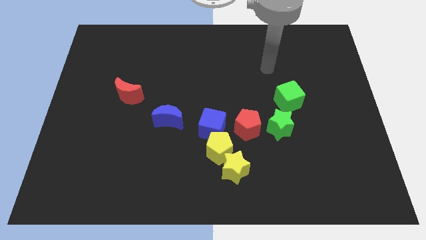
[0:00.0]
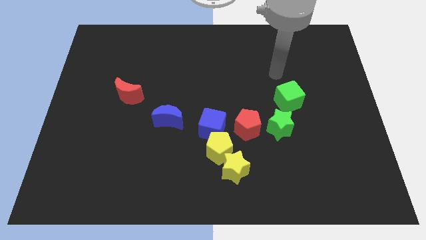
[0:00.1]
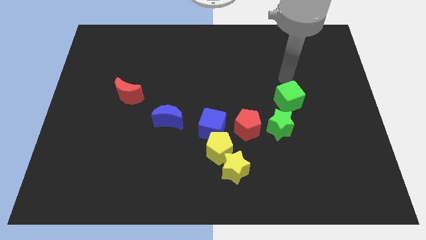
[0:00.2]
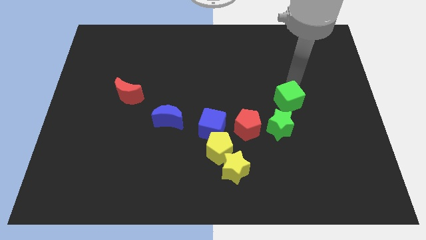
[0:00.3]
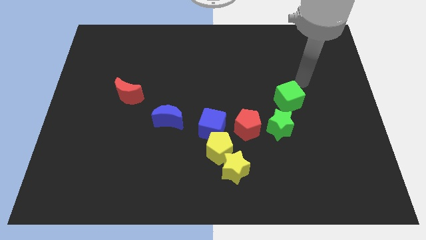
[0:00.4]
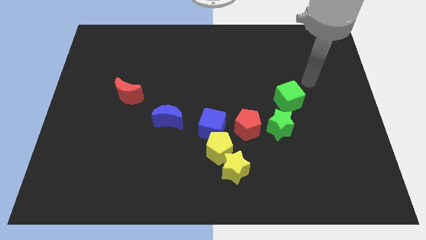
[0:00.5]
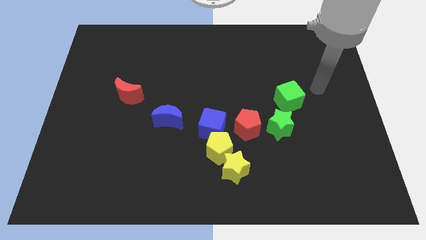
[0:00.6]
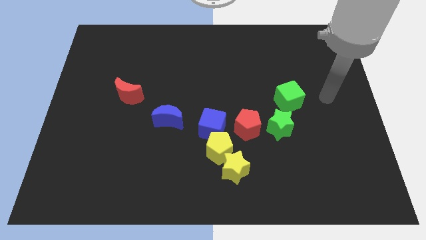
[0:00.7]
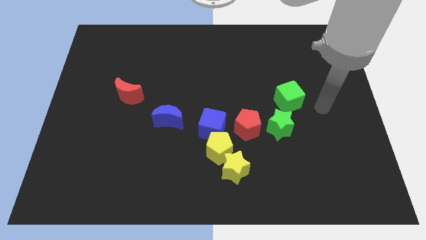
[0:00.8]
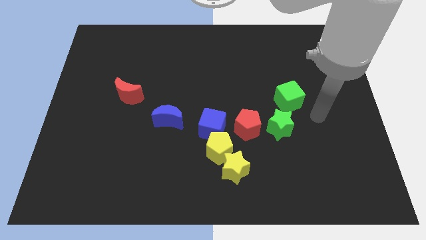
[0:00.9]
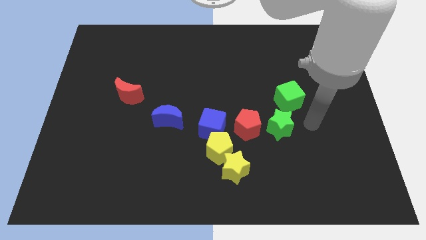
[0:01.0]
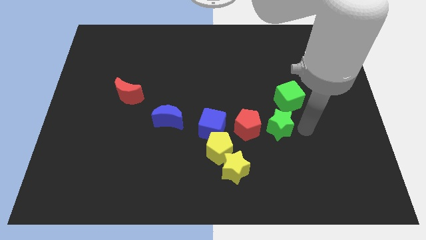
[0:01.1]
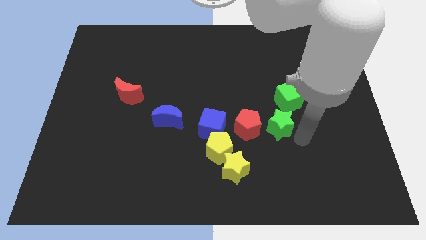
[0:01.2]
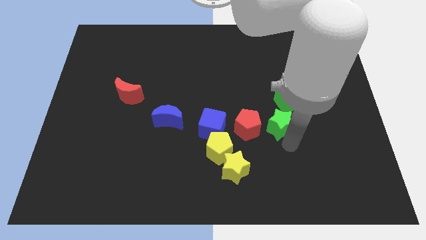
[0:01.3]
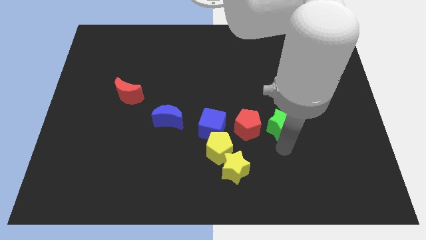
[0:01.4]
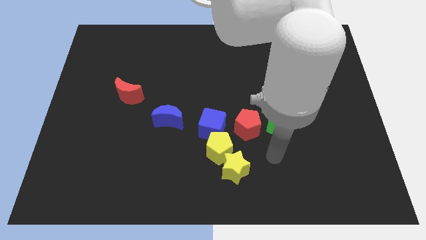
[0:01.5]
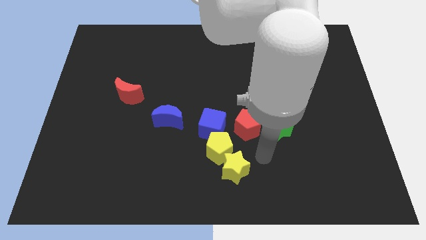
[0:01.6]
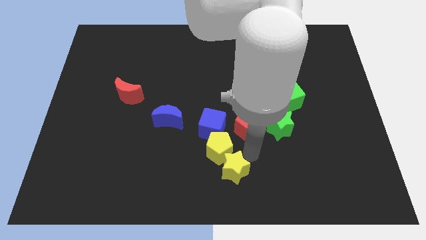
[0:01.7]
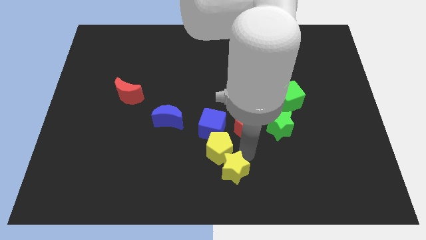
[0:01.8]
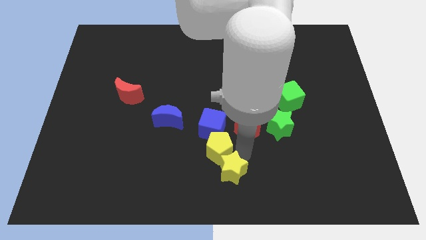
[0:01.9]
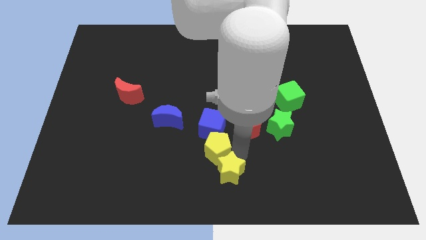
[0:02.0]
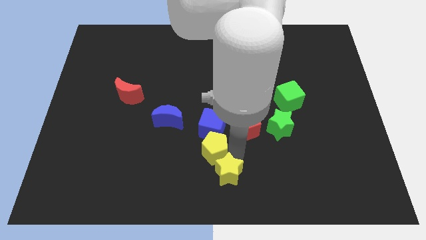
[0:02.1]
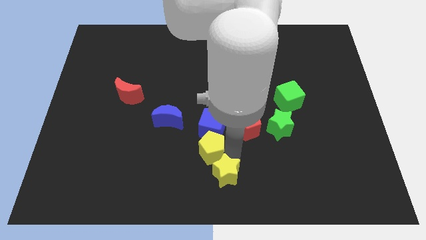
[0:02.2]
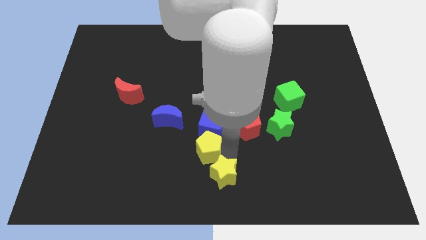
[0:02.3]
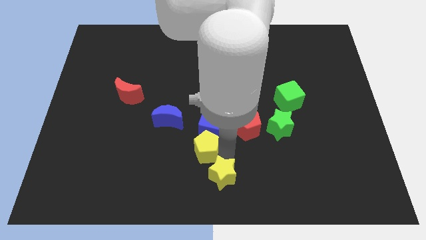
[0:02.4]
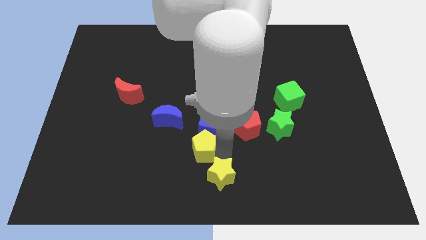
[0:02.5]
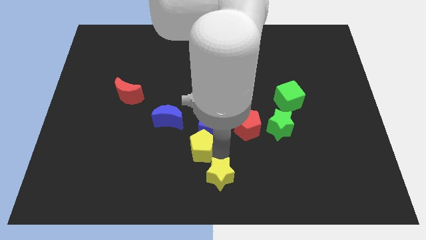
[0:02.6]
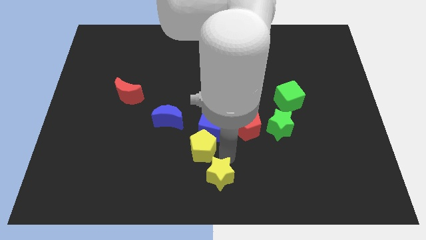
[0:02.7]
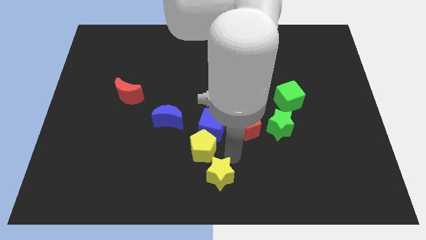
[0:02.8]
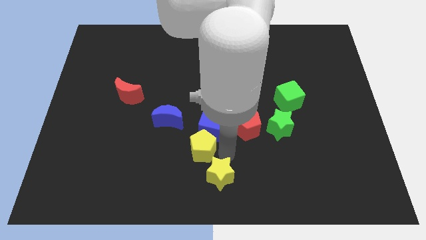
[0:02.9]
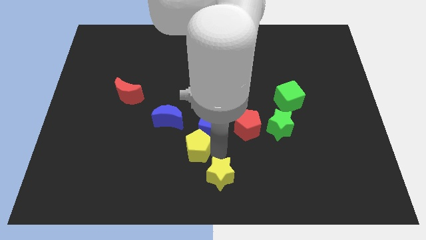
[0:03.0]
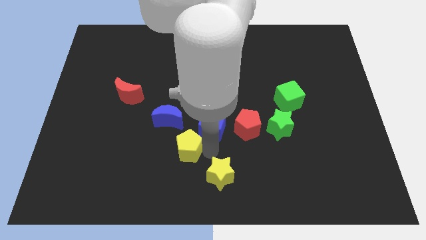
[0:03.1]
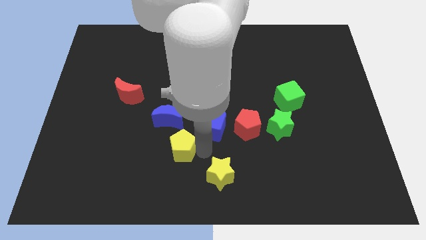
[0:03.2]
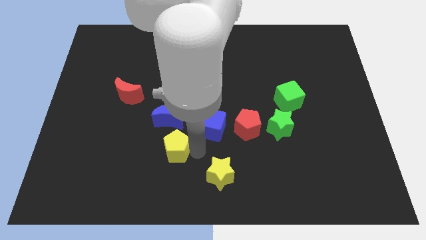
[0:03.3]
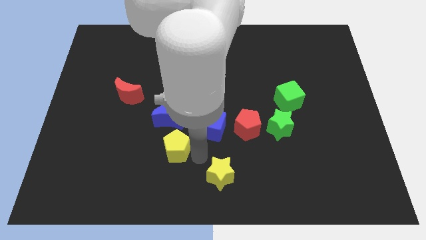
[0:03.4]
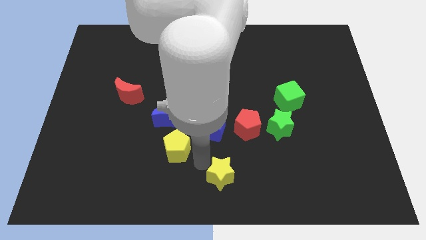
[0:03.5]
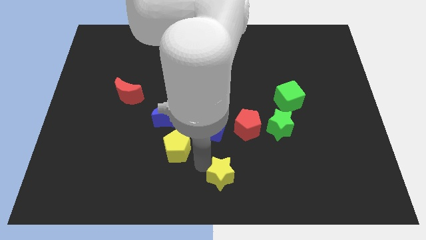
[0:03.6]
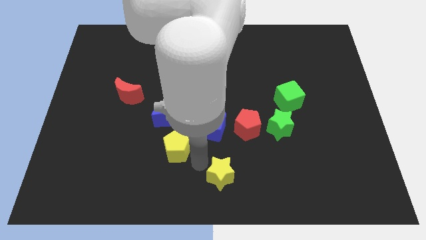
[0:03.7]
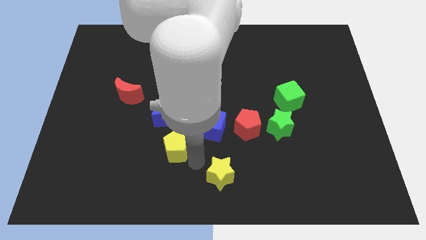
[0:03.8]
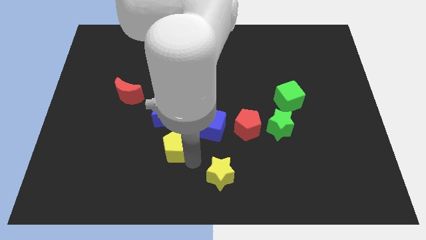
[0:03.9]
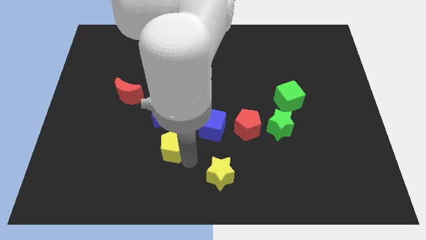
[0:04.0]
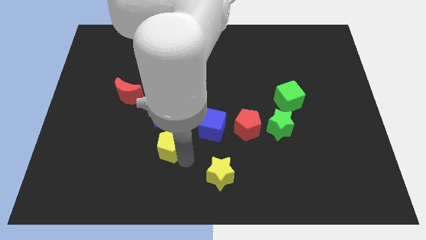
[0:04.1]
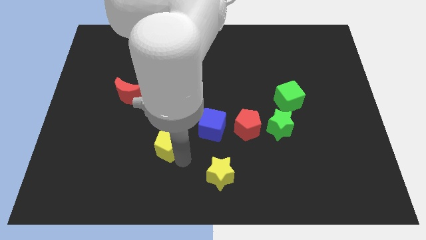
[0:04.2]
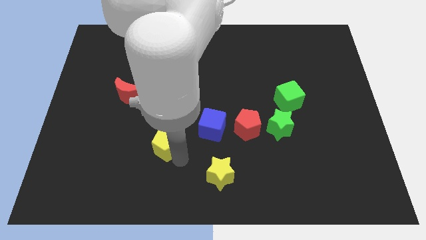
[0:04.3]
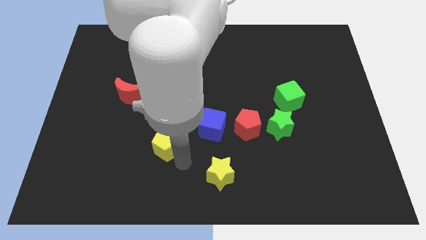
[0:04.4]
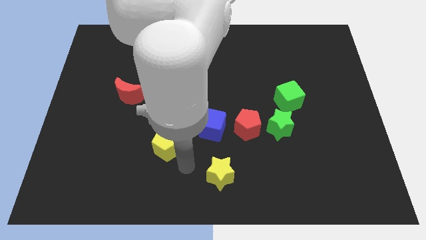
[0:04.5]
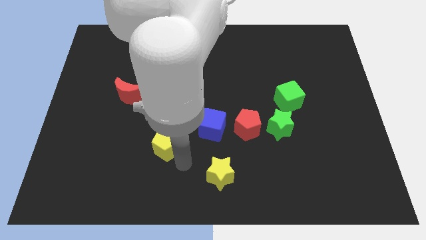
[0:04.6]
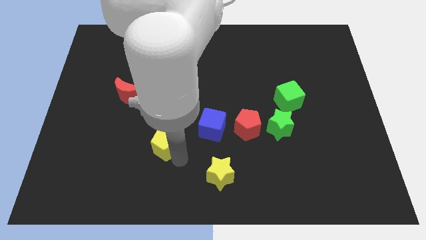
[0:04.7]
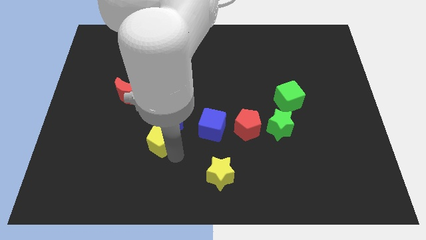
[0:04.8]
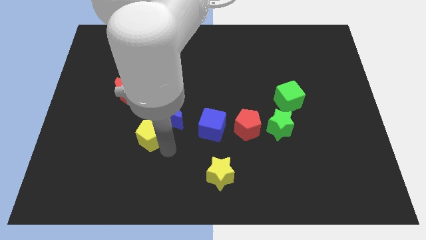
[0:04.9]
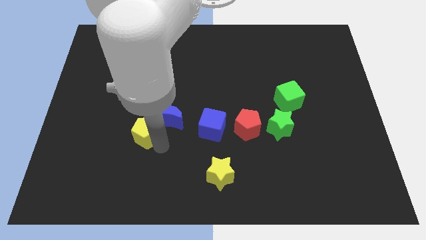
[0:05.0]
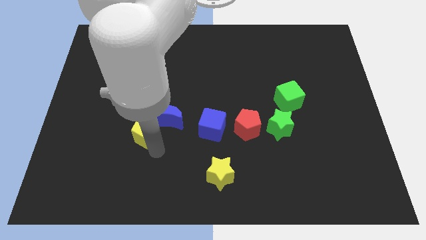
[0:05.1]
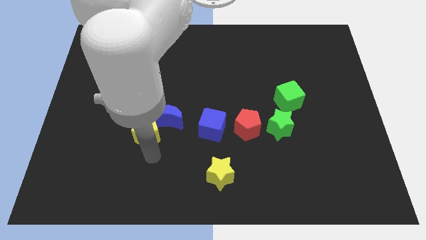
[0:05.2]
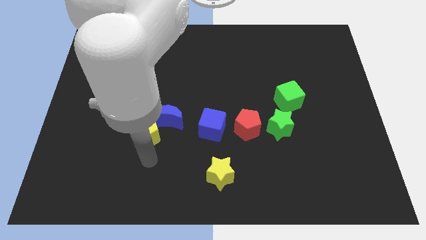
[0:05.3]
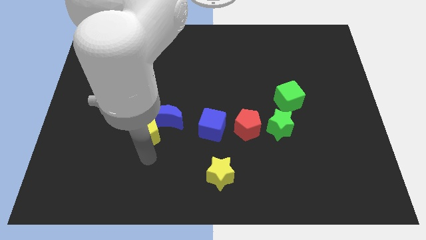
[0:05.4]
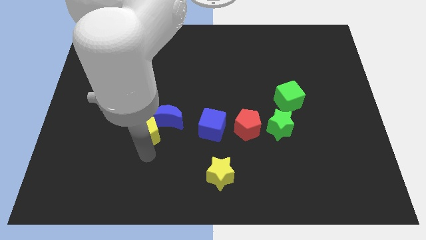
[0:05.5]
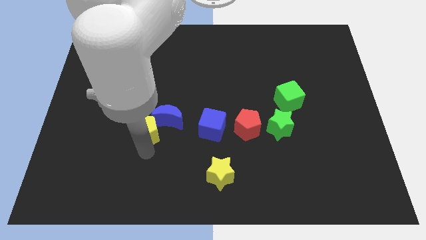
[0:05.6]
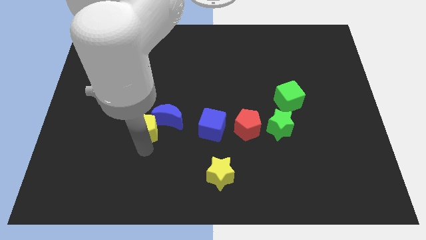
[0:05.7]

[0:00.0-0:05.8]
put the yellow pentagon to the bottom right of the red moon

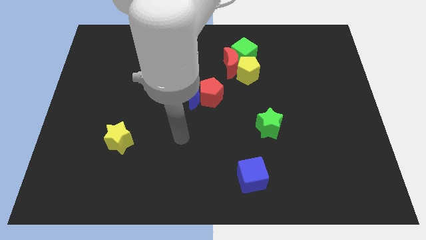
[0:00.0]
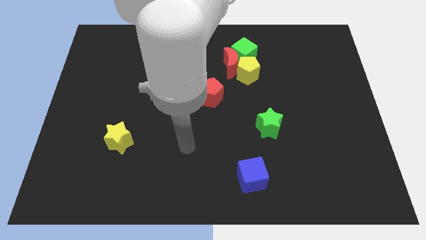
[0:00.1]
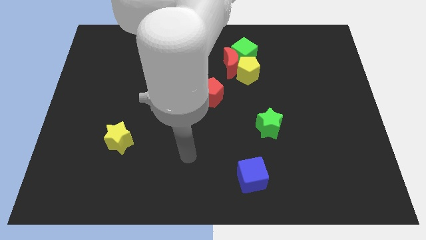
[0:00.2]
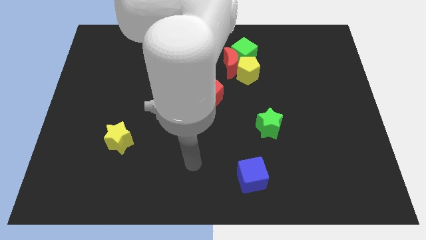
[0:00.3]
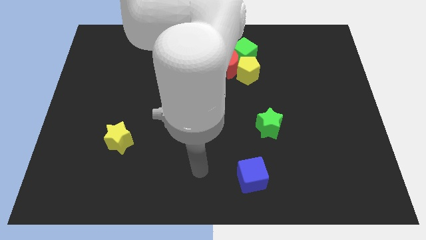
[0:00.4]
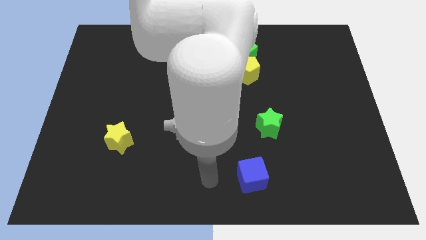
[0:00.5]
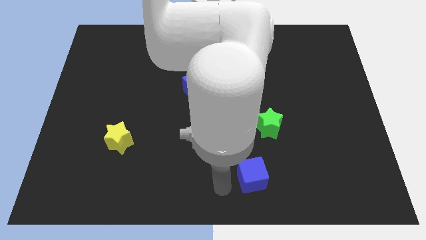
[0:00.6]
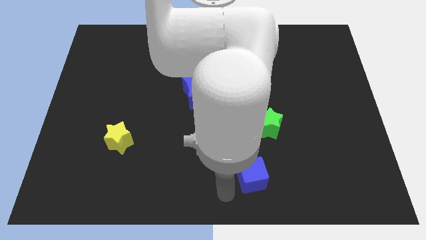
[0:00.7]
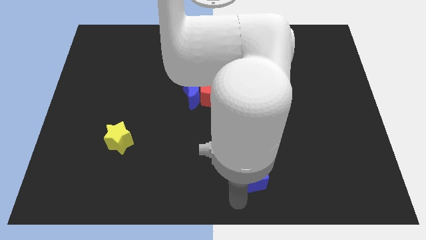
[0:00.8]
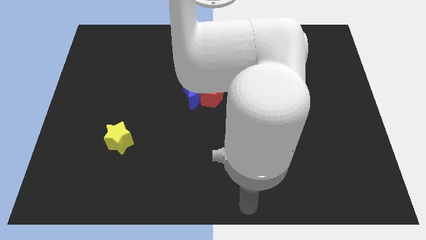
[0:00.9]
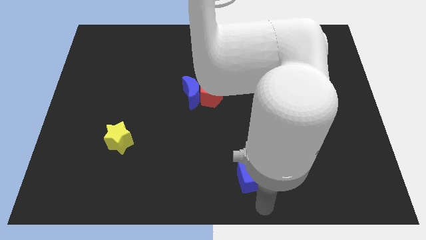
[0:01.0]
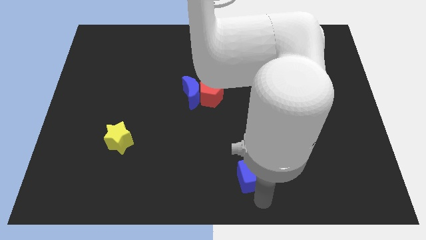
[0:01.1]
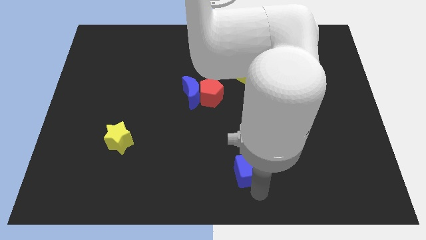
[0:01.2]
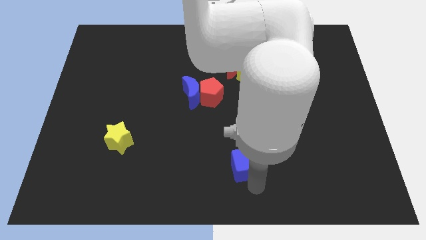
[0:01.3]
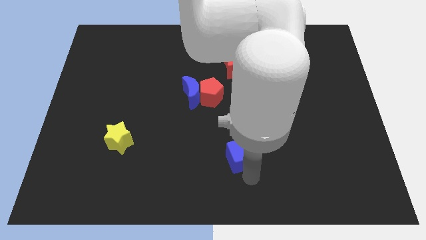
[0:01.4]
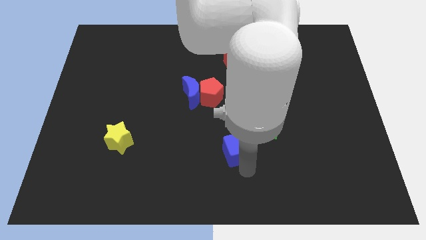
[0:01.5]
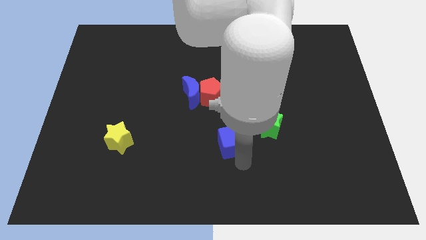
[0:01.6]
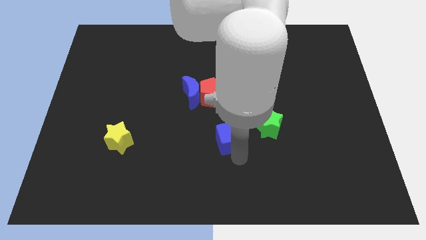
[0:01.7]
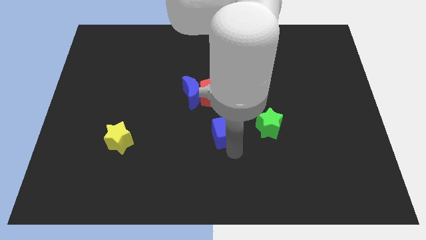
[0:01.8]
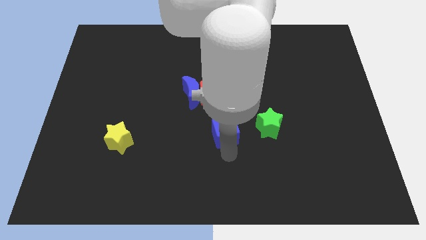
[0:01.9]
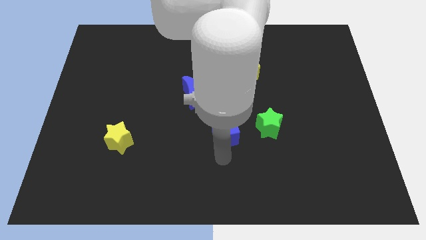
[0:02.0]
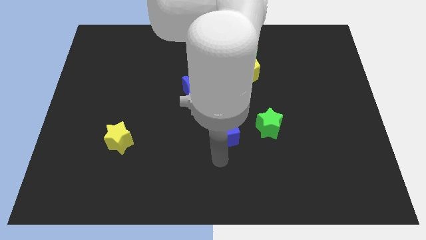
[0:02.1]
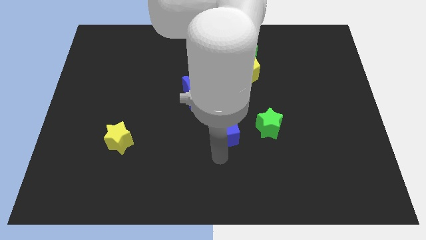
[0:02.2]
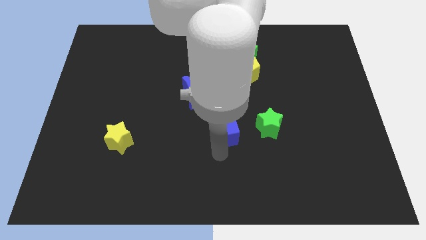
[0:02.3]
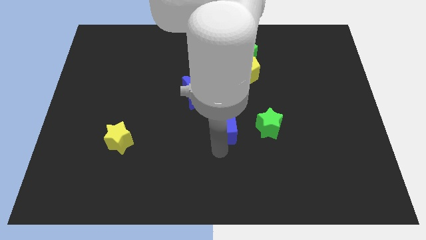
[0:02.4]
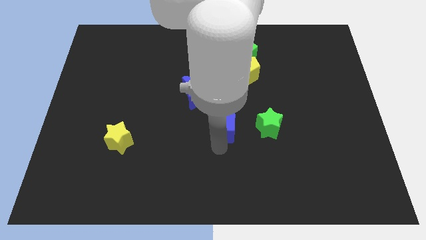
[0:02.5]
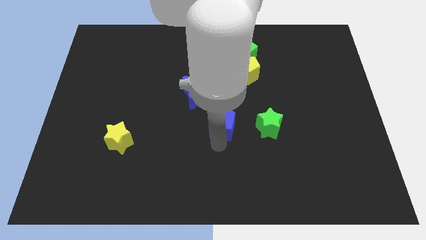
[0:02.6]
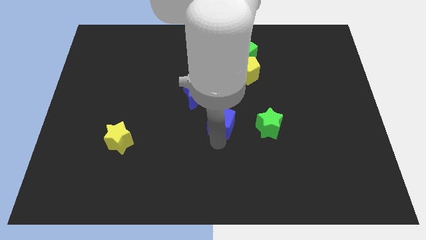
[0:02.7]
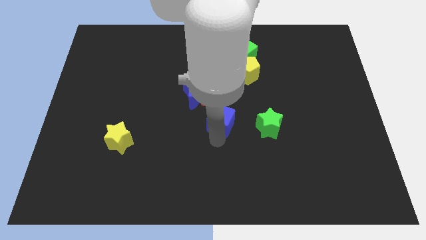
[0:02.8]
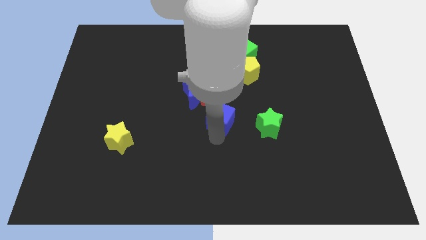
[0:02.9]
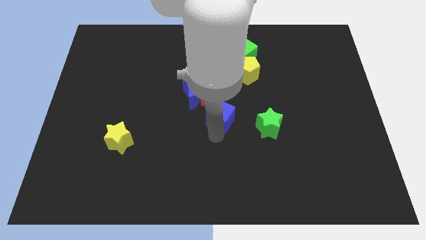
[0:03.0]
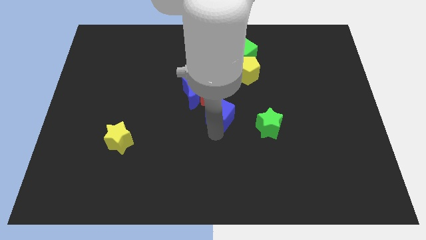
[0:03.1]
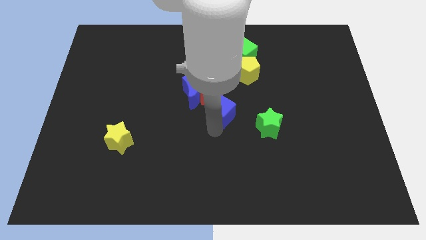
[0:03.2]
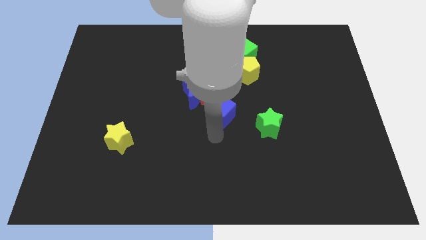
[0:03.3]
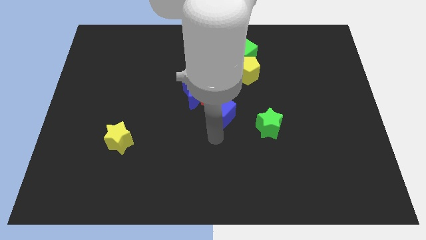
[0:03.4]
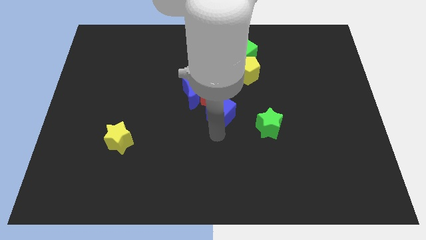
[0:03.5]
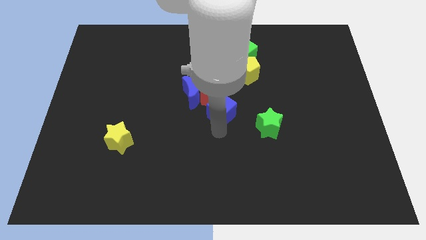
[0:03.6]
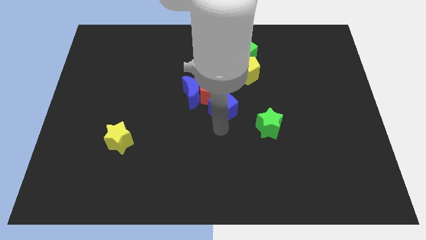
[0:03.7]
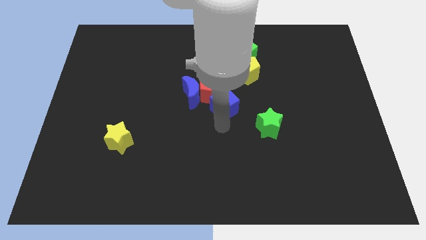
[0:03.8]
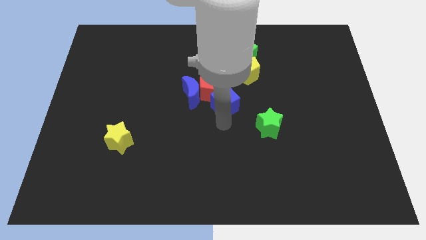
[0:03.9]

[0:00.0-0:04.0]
put the blue cube to the bottom left side of the yellow pentagon
